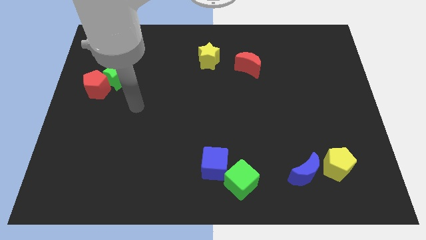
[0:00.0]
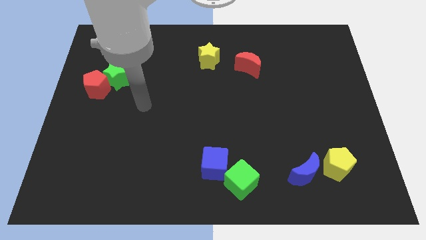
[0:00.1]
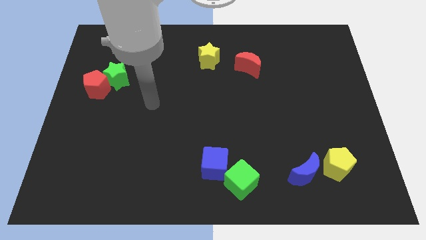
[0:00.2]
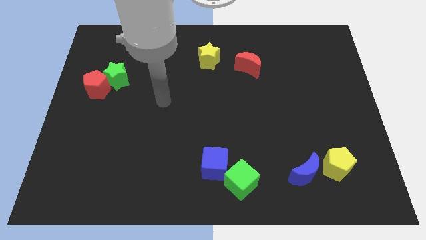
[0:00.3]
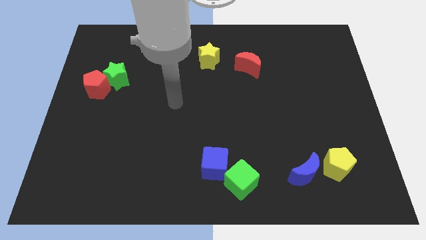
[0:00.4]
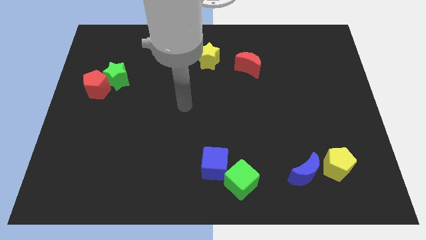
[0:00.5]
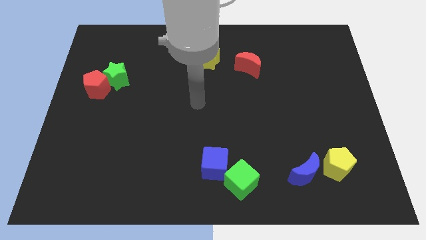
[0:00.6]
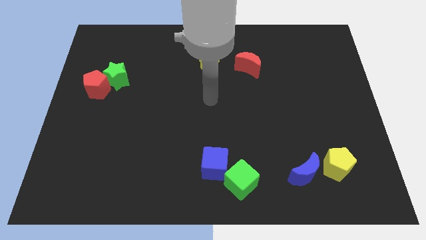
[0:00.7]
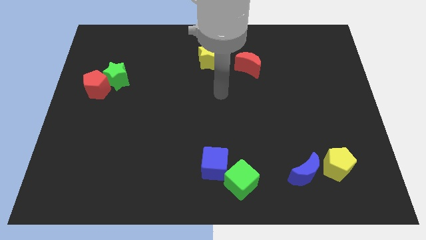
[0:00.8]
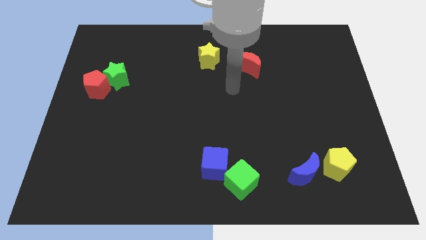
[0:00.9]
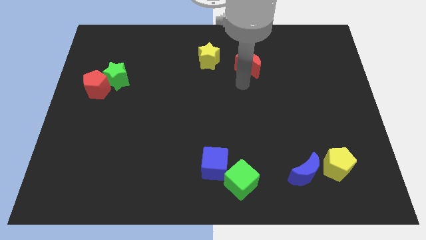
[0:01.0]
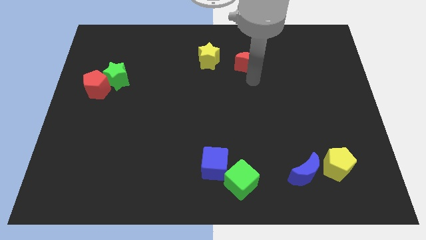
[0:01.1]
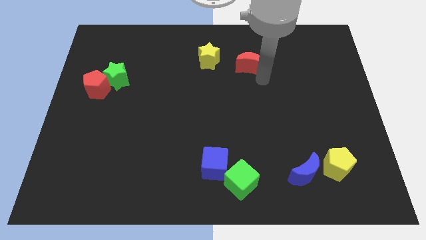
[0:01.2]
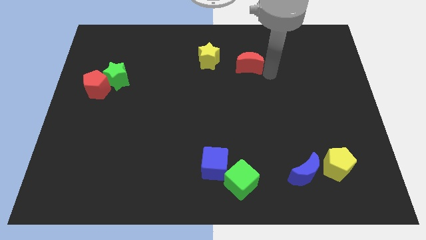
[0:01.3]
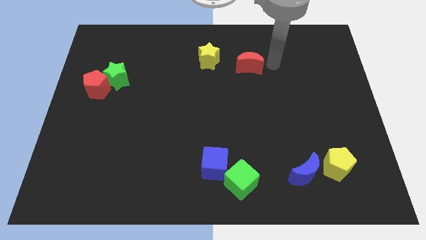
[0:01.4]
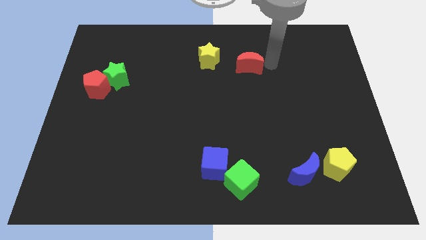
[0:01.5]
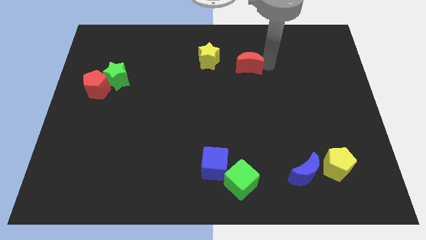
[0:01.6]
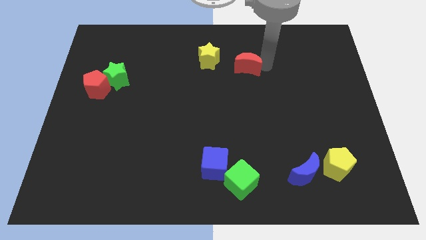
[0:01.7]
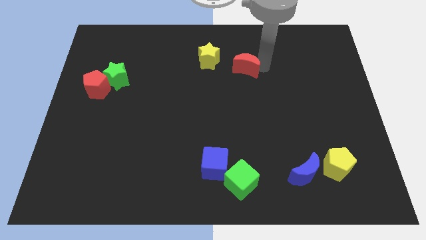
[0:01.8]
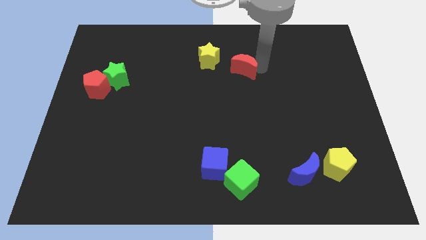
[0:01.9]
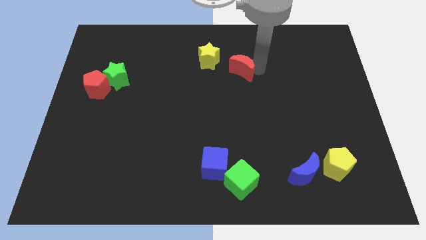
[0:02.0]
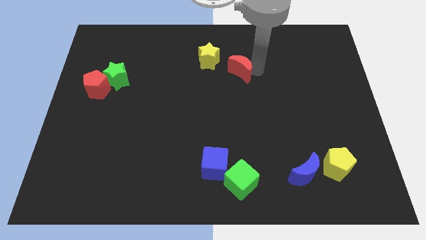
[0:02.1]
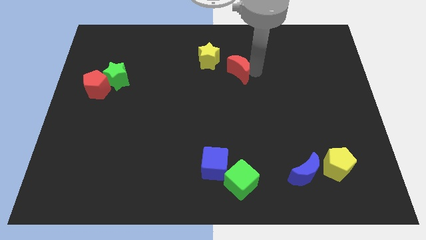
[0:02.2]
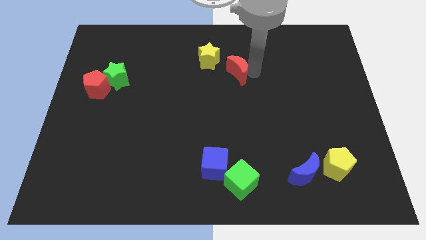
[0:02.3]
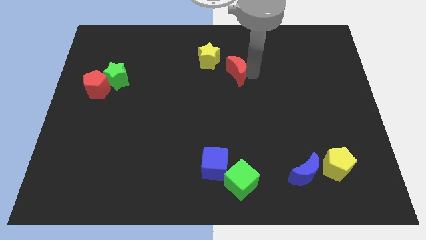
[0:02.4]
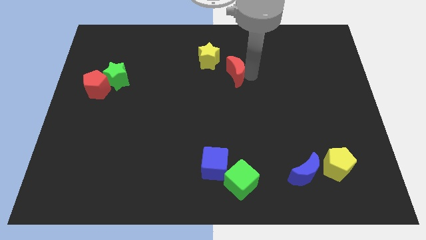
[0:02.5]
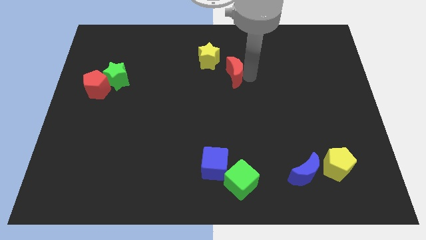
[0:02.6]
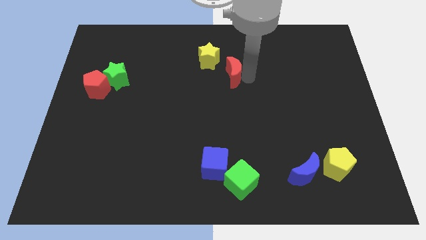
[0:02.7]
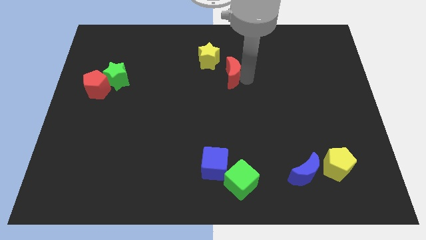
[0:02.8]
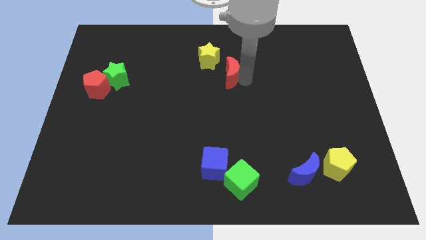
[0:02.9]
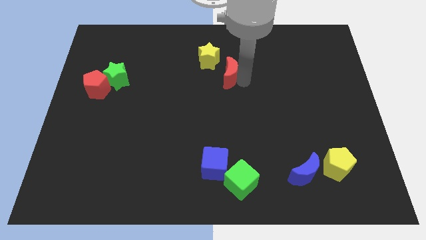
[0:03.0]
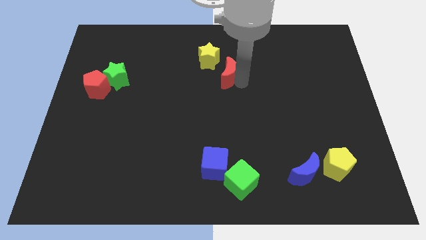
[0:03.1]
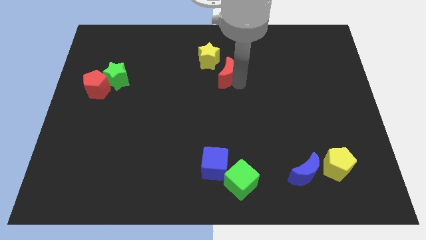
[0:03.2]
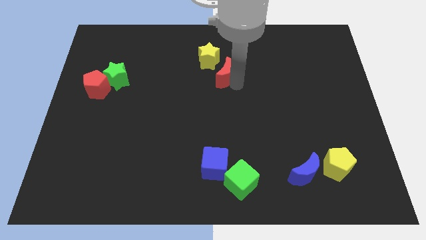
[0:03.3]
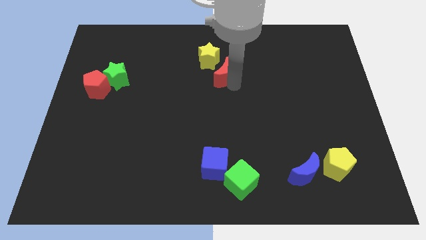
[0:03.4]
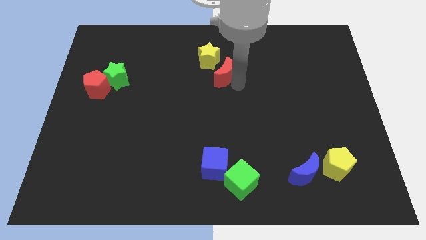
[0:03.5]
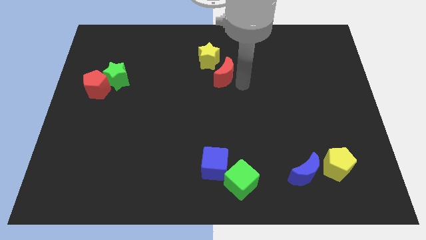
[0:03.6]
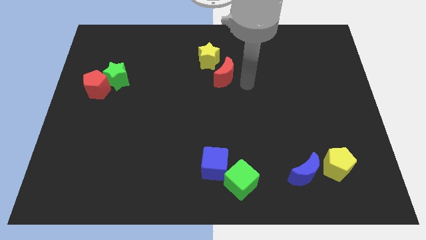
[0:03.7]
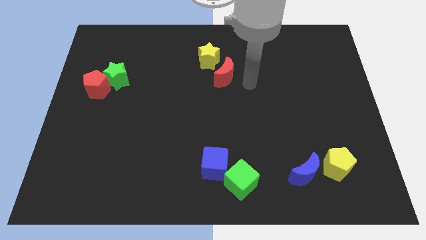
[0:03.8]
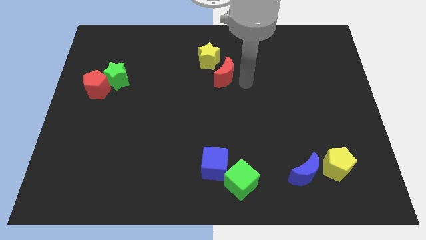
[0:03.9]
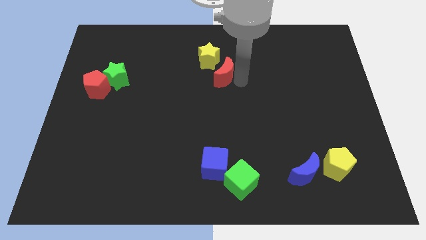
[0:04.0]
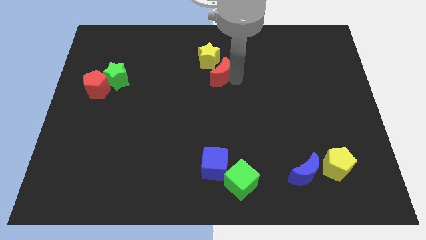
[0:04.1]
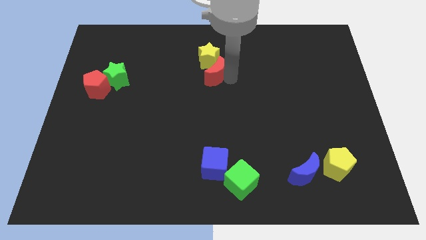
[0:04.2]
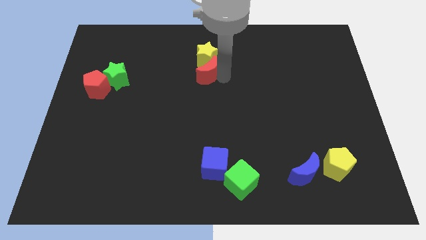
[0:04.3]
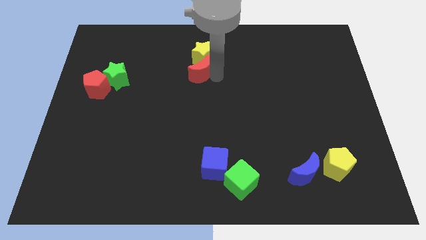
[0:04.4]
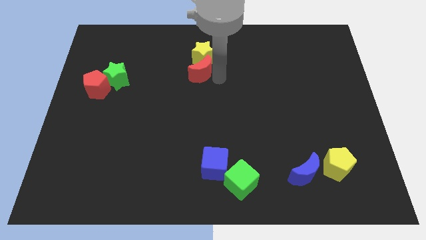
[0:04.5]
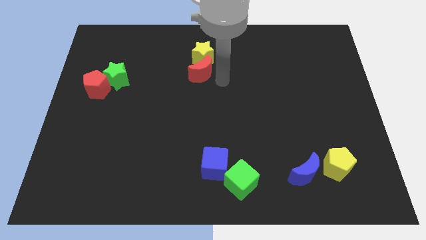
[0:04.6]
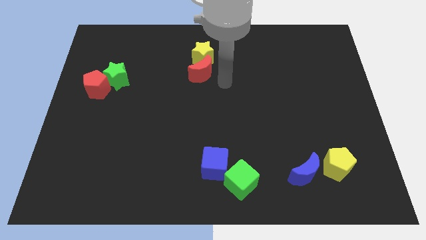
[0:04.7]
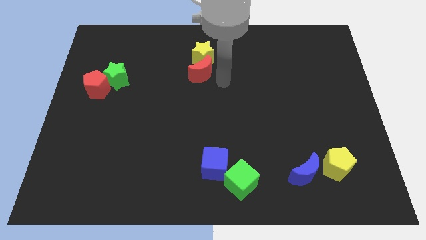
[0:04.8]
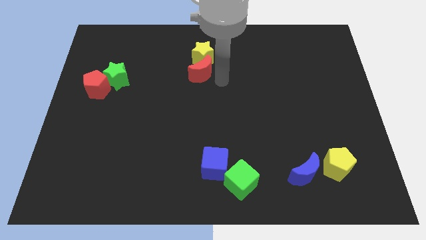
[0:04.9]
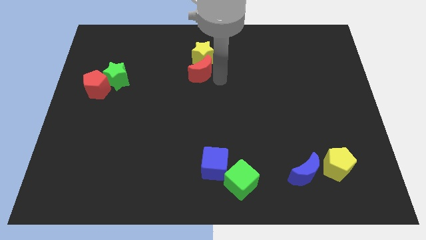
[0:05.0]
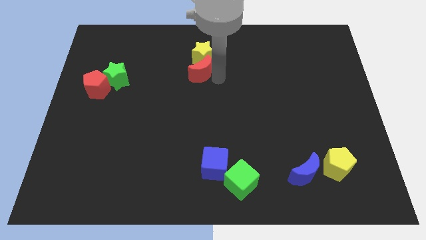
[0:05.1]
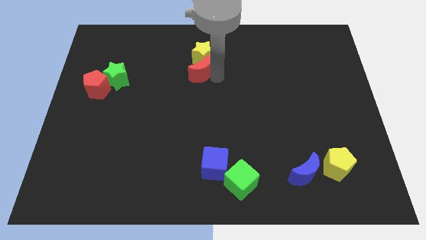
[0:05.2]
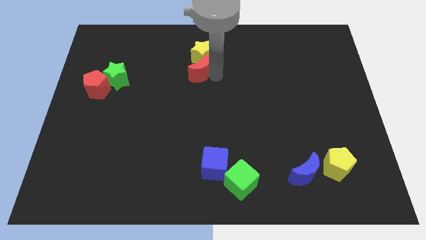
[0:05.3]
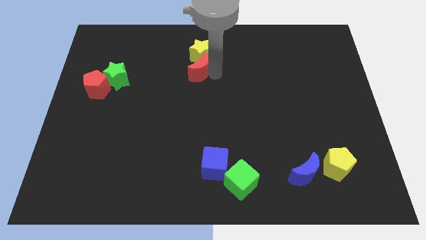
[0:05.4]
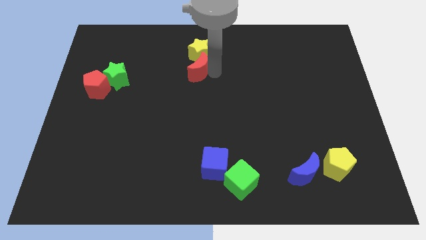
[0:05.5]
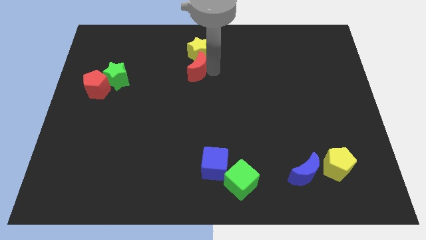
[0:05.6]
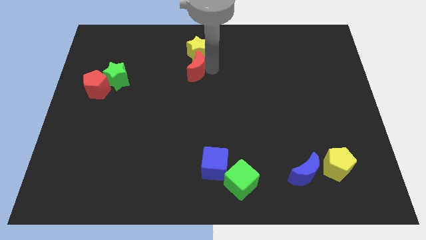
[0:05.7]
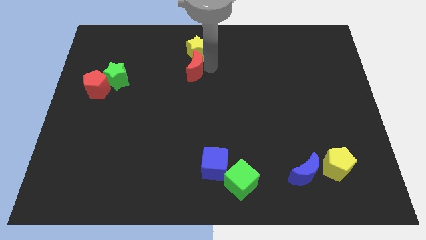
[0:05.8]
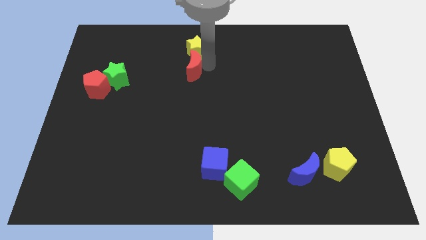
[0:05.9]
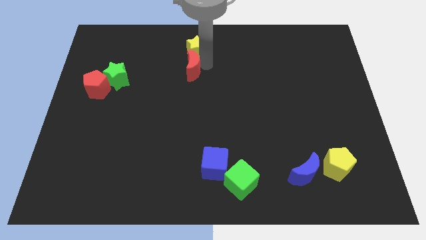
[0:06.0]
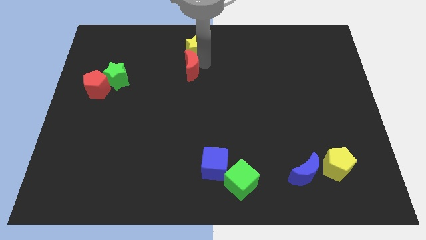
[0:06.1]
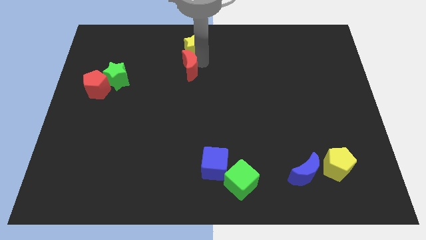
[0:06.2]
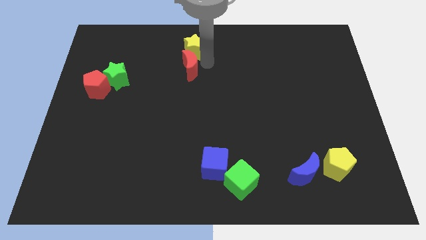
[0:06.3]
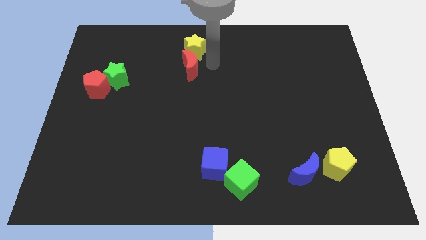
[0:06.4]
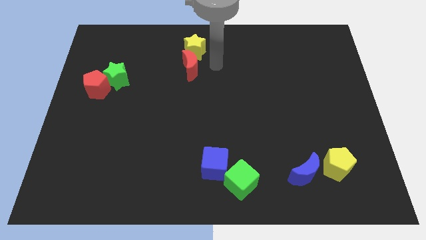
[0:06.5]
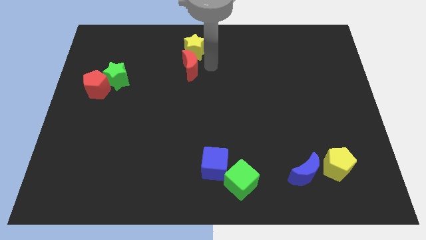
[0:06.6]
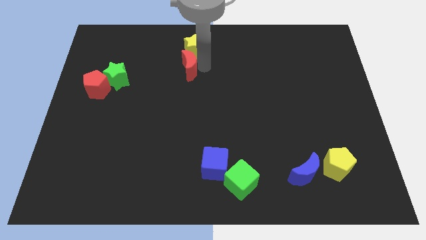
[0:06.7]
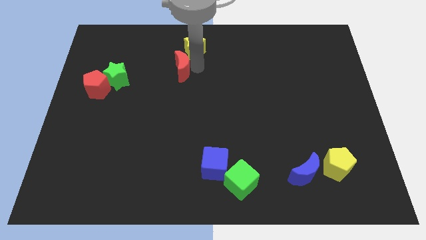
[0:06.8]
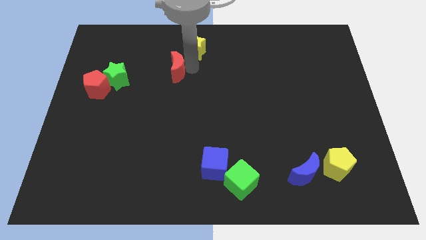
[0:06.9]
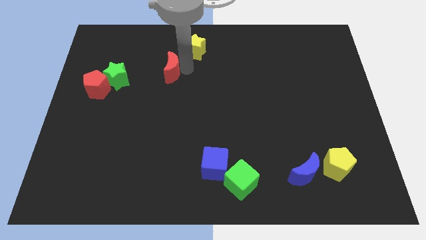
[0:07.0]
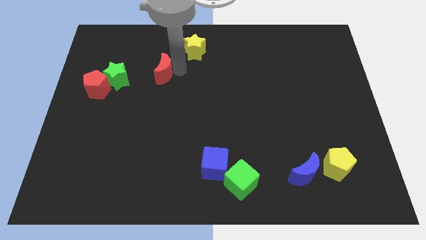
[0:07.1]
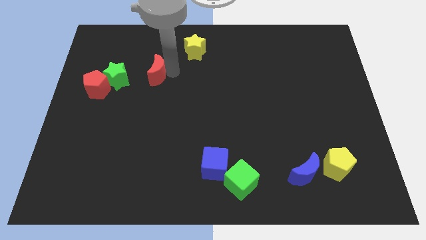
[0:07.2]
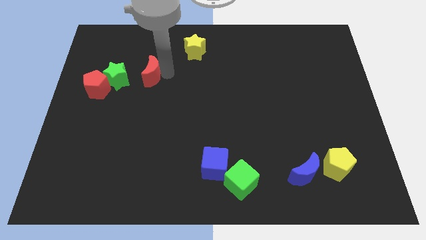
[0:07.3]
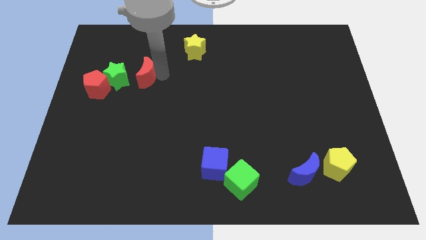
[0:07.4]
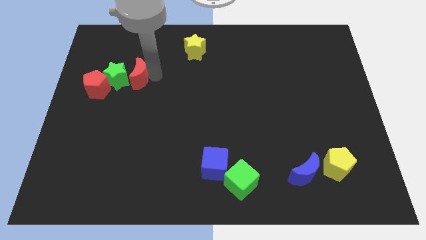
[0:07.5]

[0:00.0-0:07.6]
slide the red moon close to the green star
